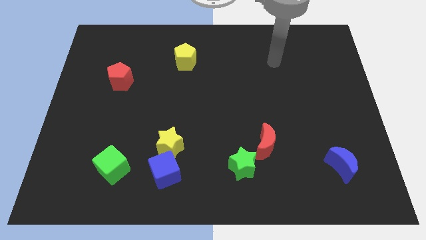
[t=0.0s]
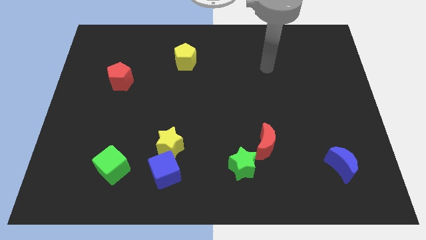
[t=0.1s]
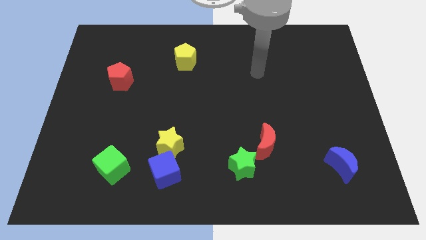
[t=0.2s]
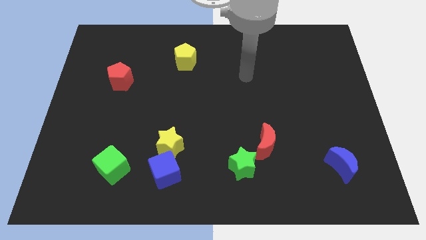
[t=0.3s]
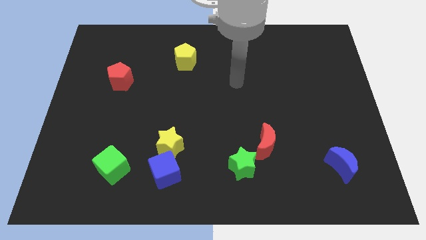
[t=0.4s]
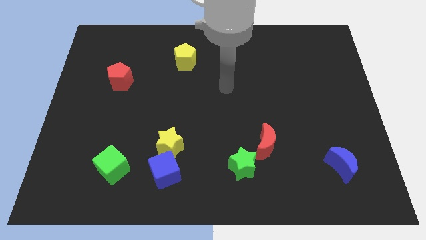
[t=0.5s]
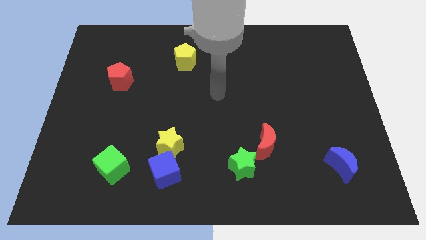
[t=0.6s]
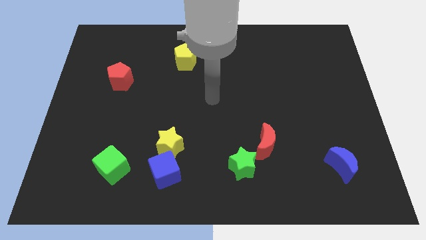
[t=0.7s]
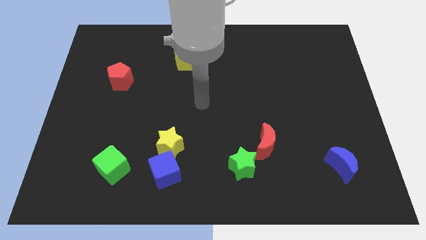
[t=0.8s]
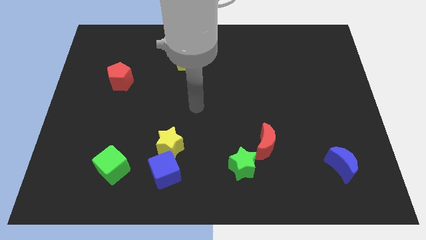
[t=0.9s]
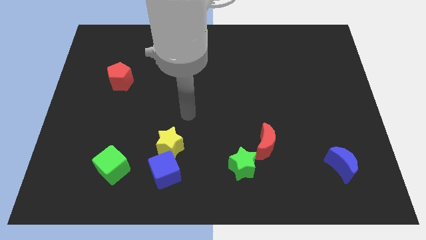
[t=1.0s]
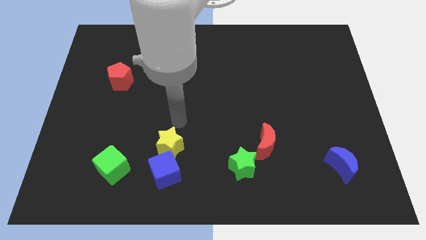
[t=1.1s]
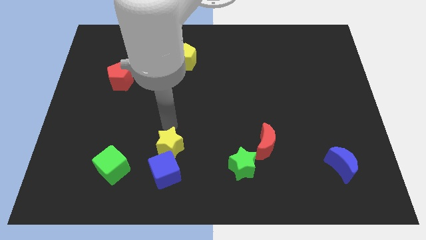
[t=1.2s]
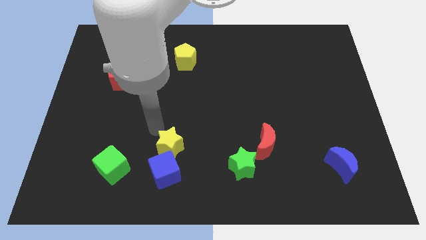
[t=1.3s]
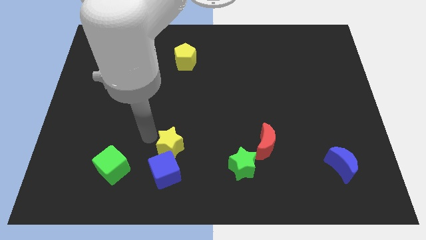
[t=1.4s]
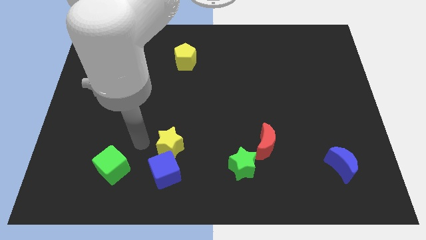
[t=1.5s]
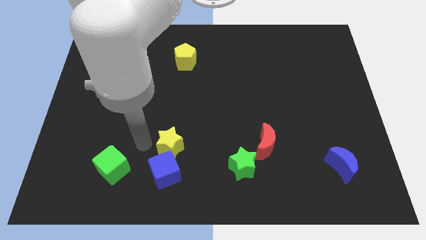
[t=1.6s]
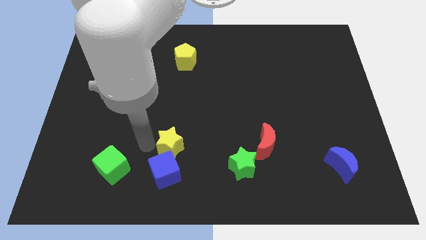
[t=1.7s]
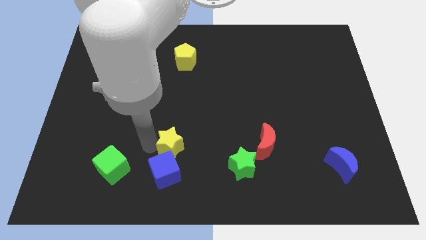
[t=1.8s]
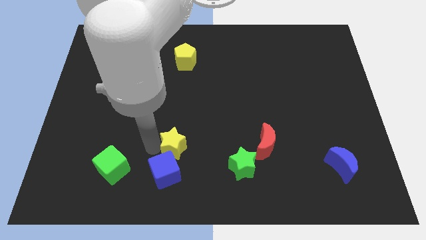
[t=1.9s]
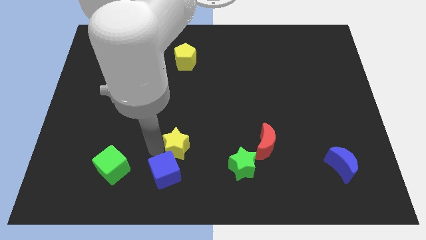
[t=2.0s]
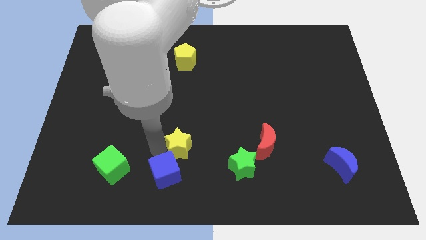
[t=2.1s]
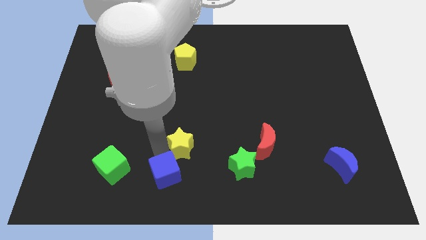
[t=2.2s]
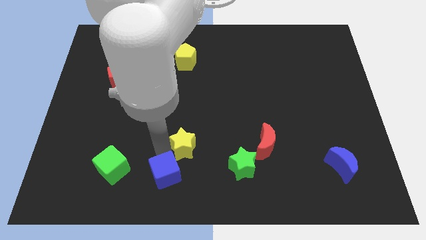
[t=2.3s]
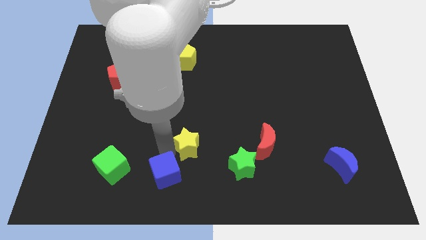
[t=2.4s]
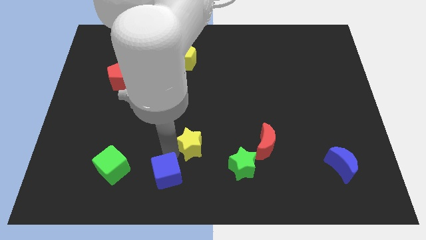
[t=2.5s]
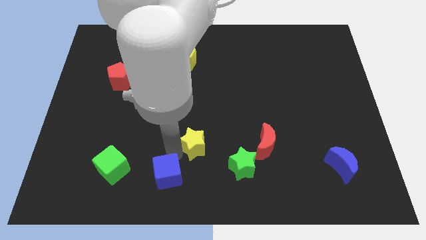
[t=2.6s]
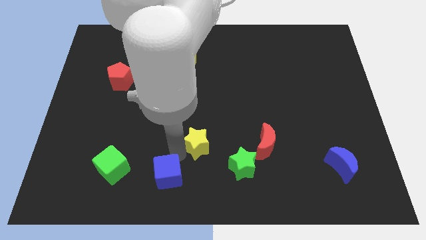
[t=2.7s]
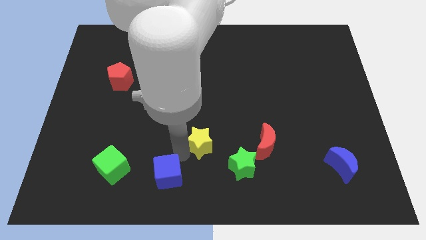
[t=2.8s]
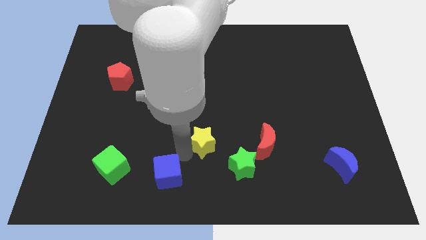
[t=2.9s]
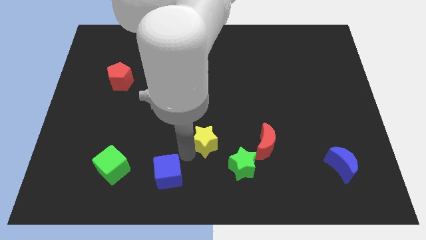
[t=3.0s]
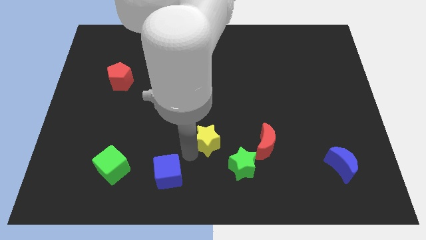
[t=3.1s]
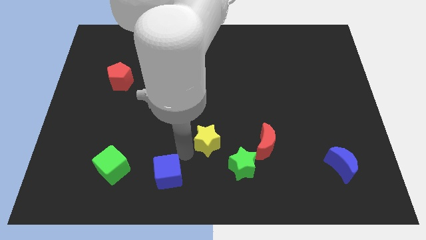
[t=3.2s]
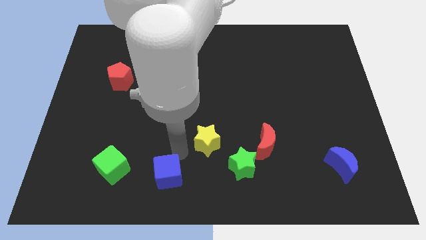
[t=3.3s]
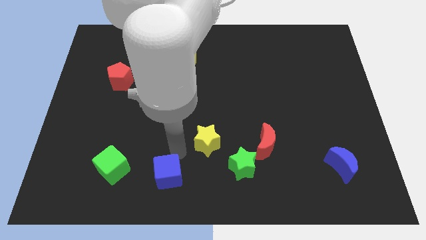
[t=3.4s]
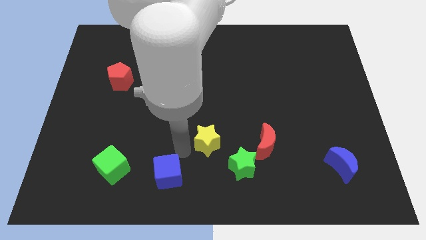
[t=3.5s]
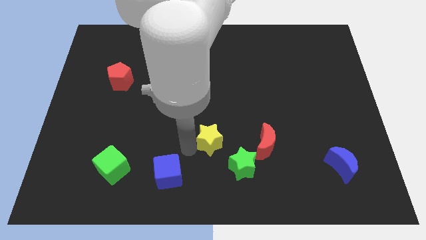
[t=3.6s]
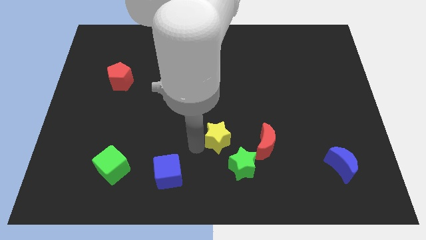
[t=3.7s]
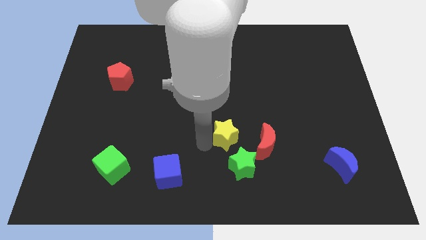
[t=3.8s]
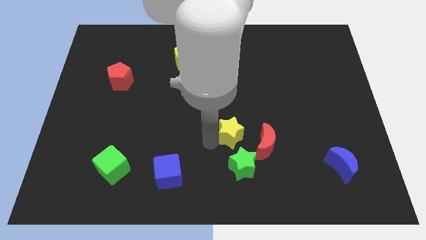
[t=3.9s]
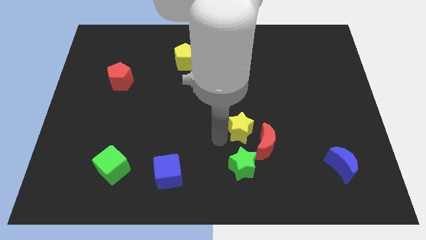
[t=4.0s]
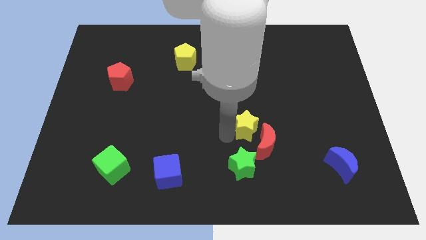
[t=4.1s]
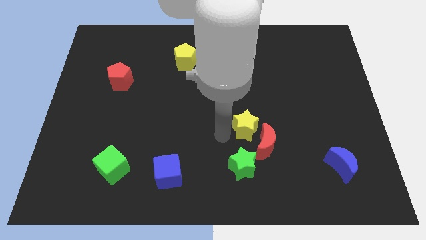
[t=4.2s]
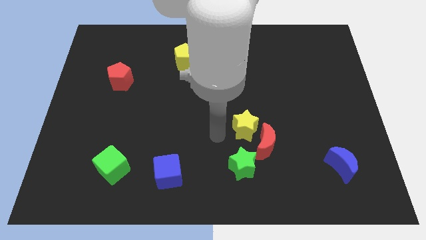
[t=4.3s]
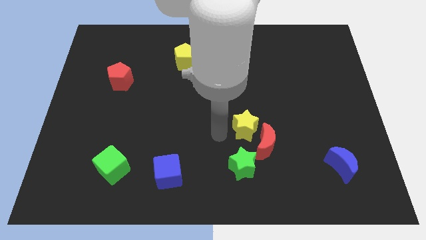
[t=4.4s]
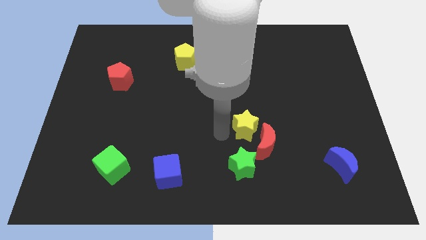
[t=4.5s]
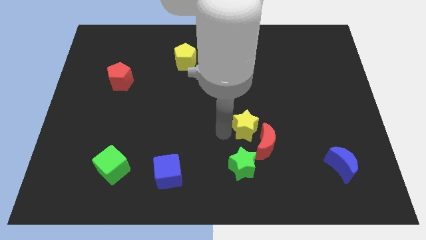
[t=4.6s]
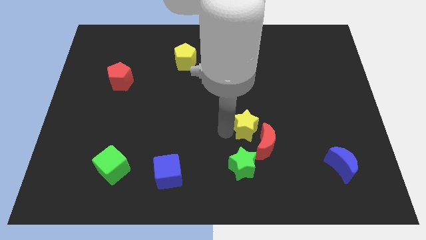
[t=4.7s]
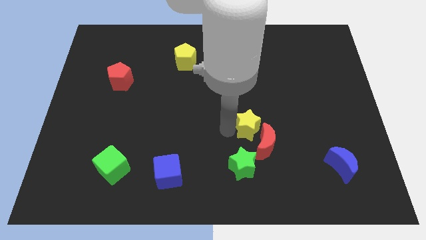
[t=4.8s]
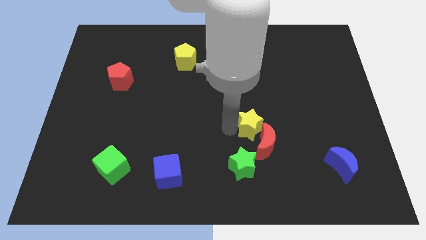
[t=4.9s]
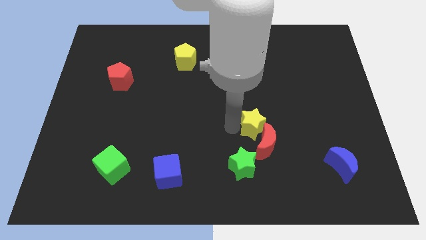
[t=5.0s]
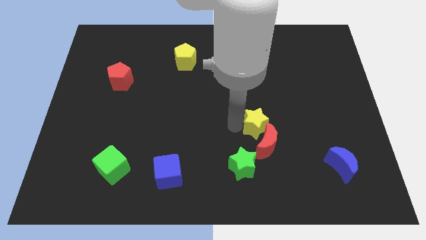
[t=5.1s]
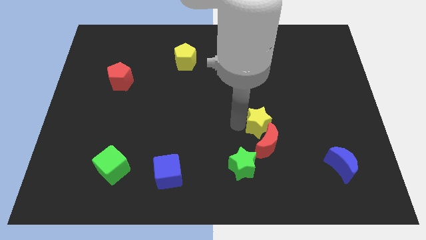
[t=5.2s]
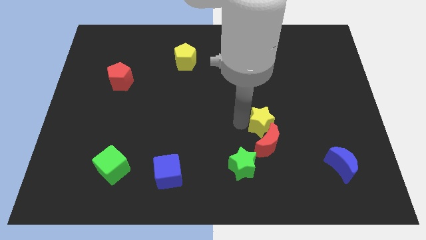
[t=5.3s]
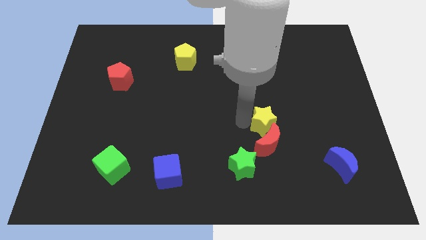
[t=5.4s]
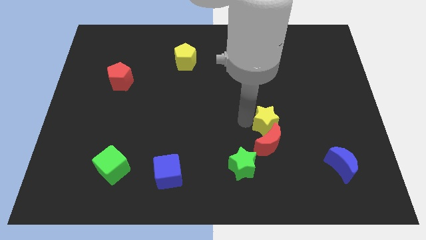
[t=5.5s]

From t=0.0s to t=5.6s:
slide the yellow star right

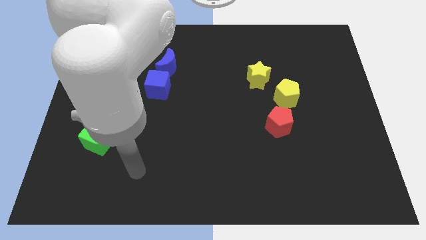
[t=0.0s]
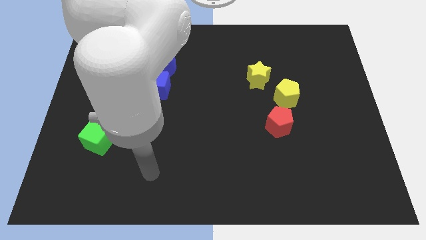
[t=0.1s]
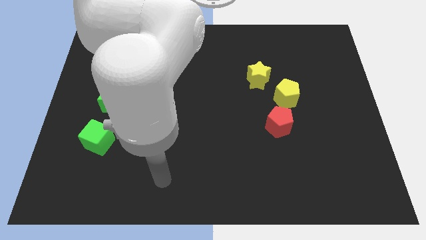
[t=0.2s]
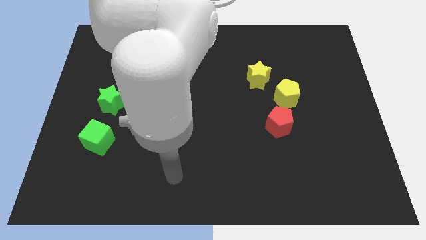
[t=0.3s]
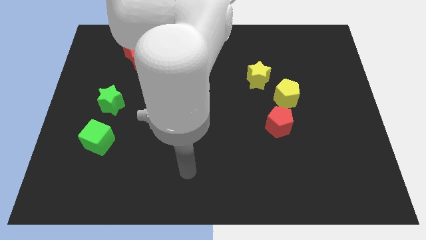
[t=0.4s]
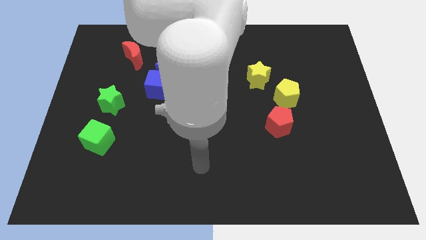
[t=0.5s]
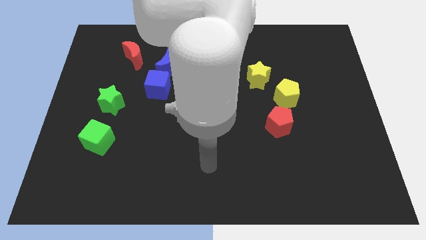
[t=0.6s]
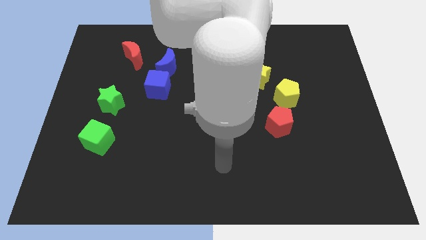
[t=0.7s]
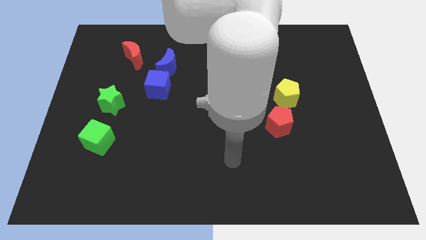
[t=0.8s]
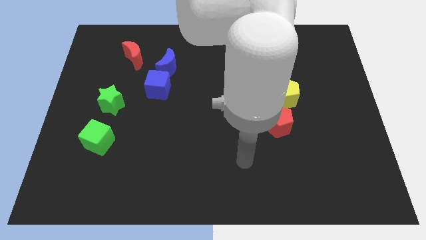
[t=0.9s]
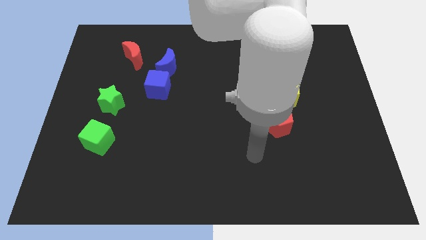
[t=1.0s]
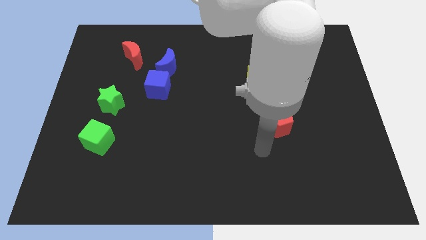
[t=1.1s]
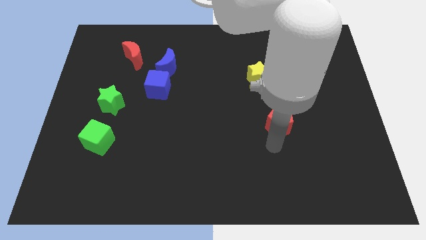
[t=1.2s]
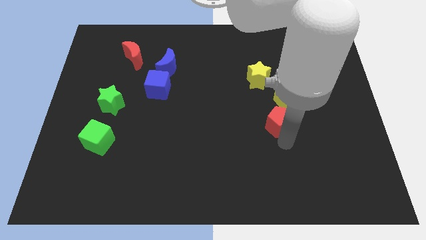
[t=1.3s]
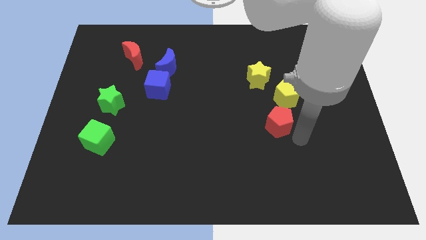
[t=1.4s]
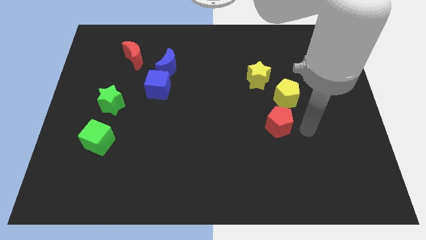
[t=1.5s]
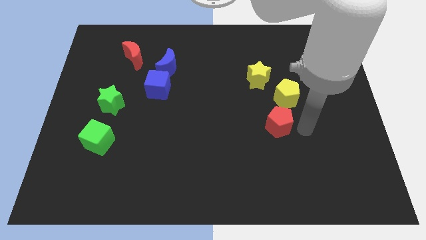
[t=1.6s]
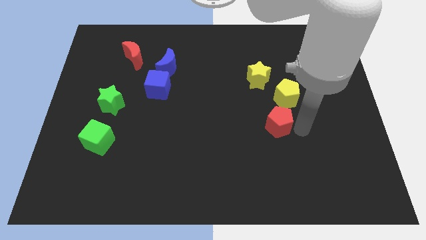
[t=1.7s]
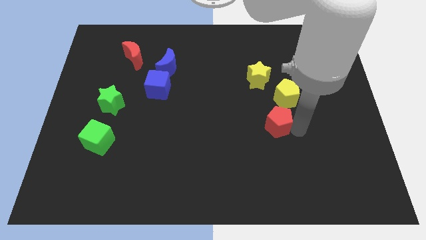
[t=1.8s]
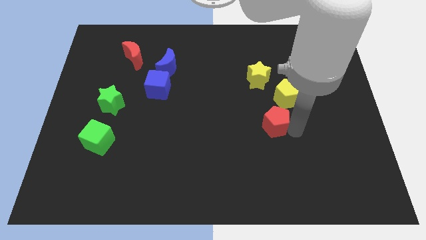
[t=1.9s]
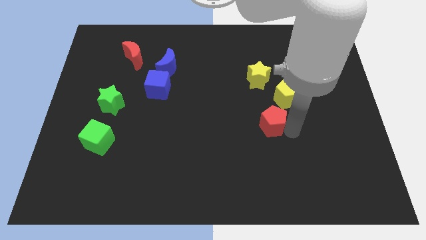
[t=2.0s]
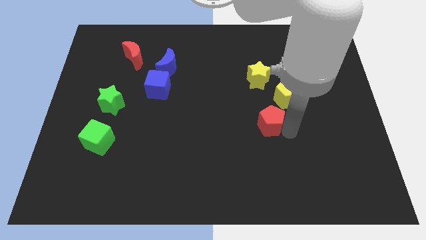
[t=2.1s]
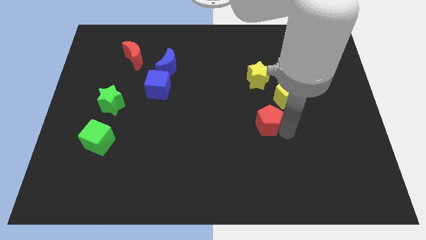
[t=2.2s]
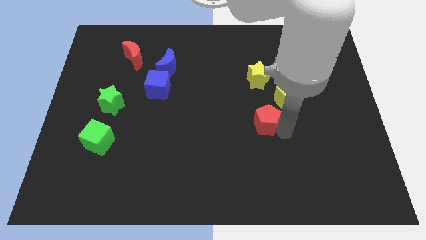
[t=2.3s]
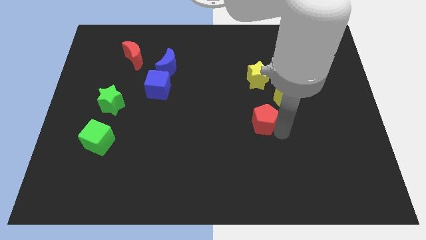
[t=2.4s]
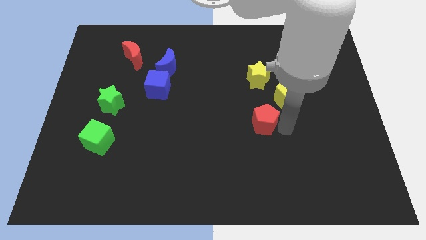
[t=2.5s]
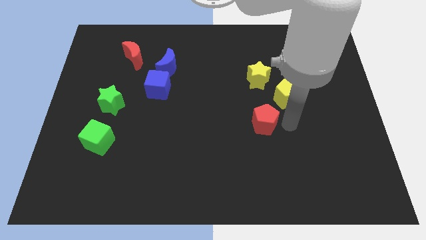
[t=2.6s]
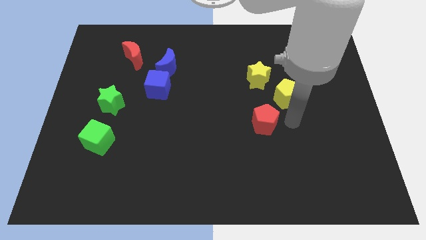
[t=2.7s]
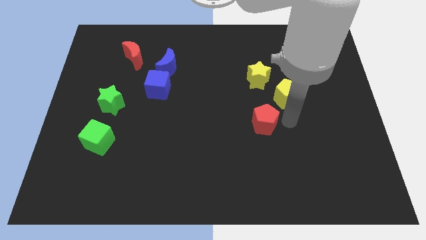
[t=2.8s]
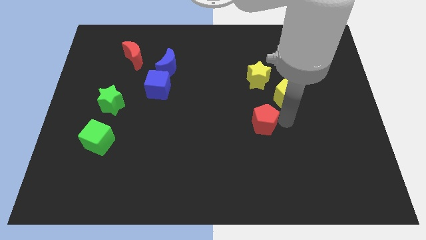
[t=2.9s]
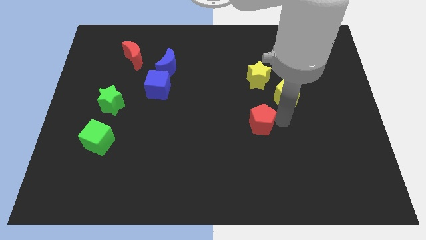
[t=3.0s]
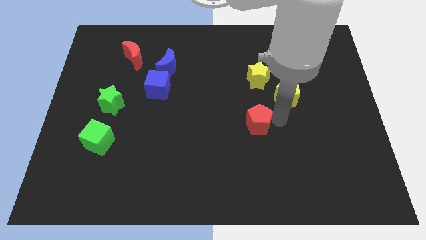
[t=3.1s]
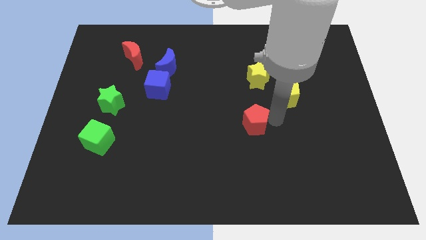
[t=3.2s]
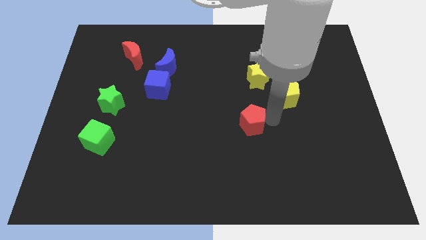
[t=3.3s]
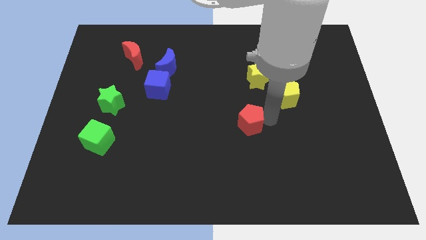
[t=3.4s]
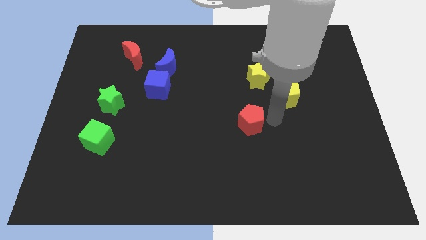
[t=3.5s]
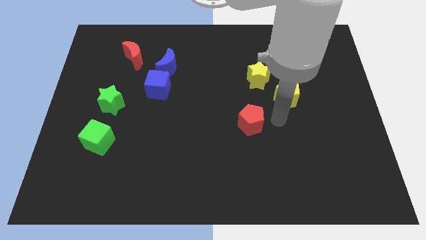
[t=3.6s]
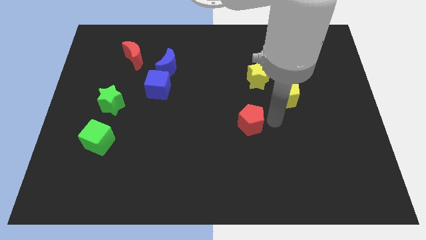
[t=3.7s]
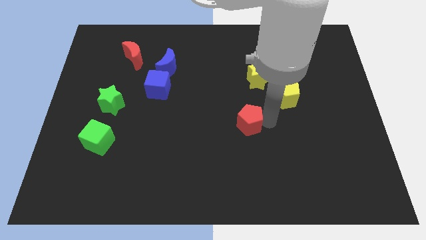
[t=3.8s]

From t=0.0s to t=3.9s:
move the red pentagon a little to the left
